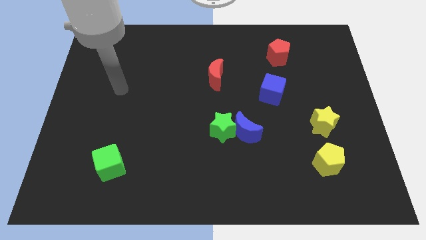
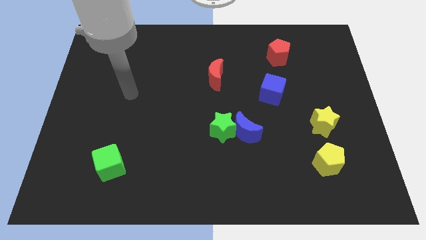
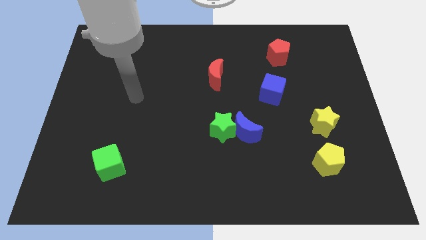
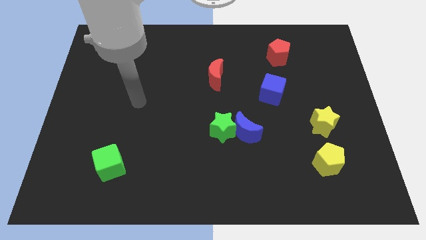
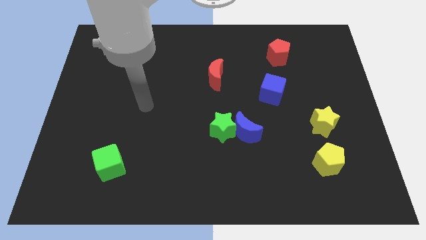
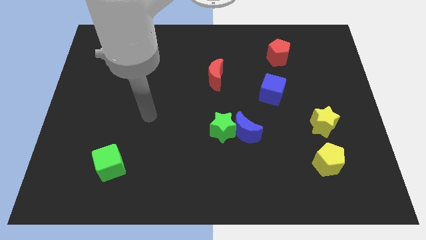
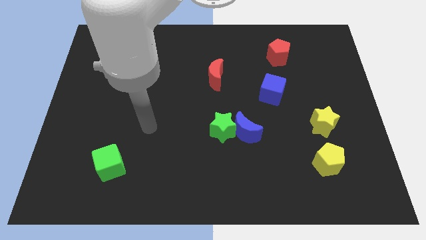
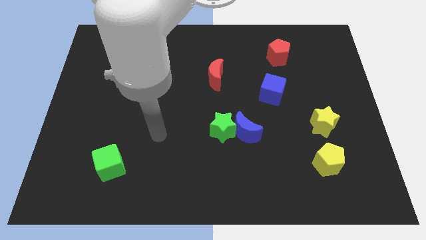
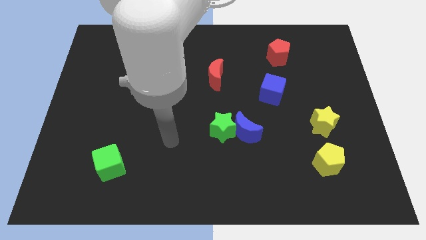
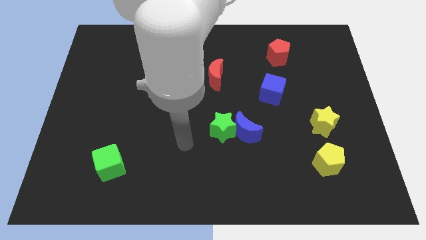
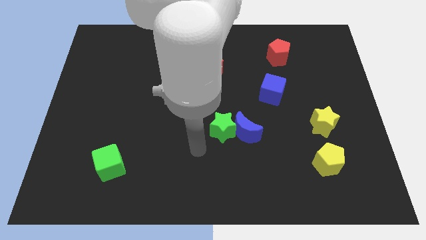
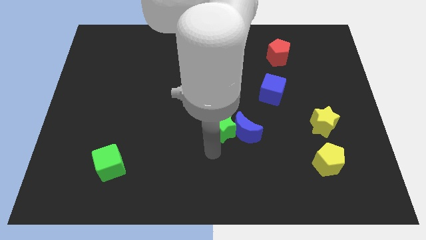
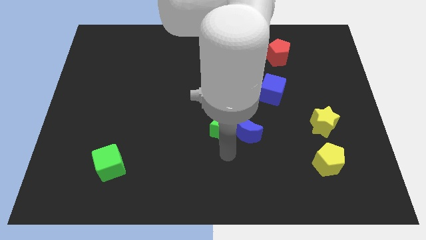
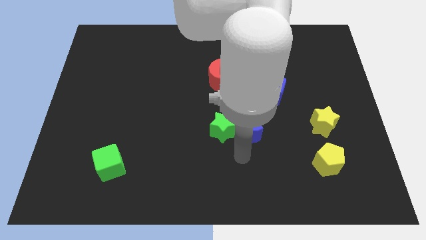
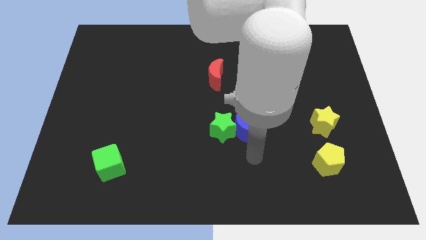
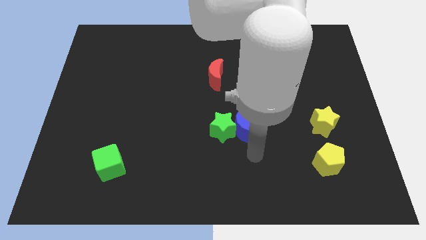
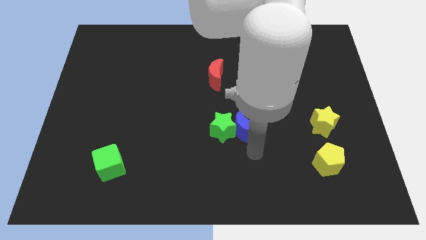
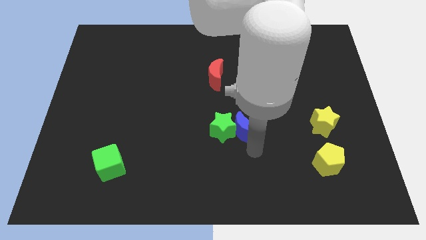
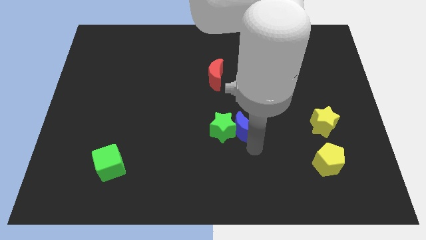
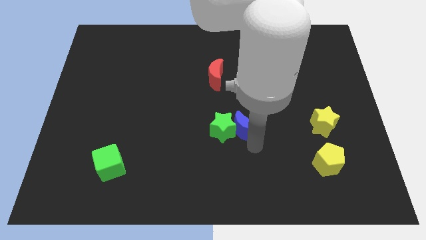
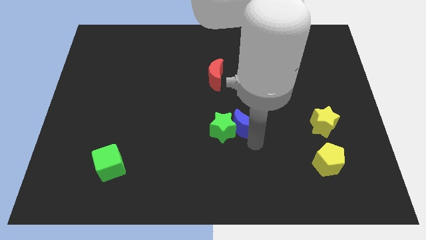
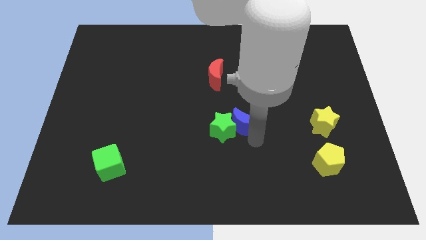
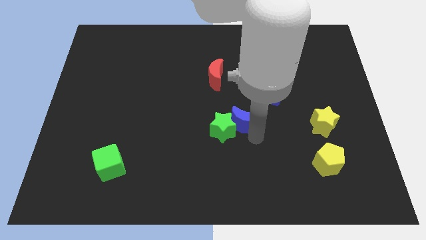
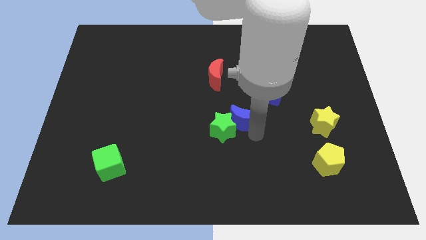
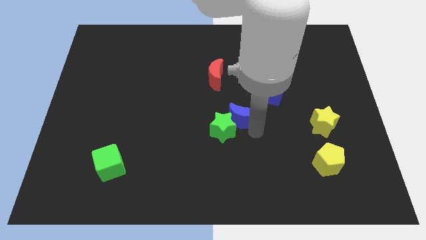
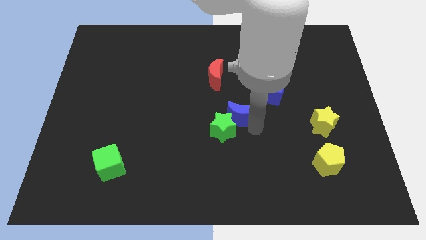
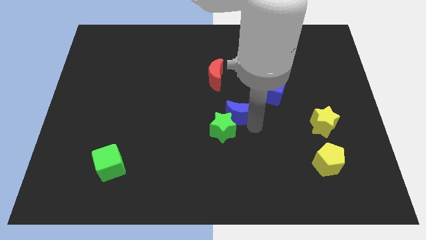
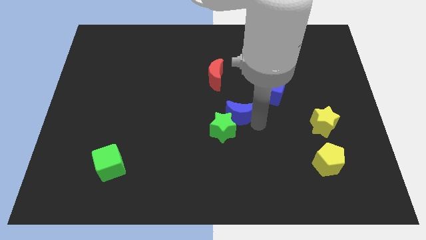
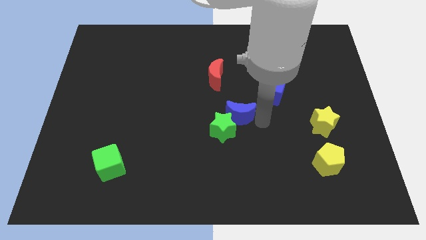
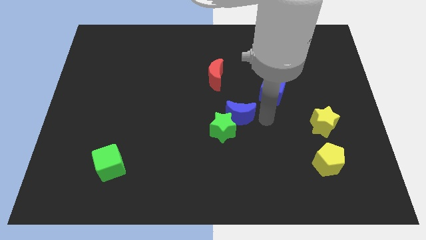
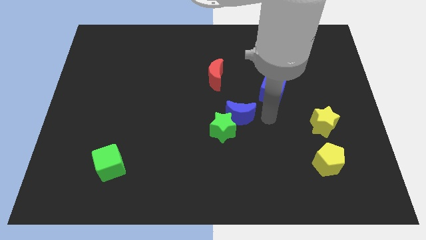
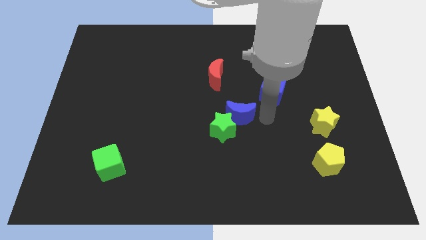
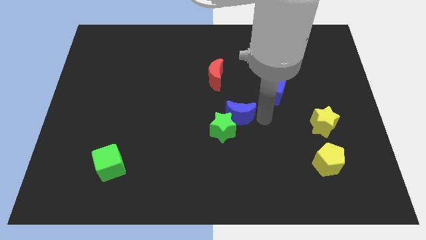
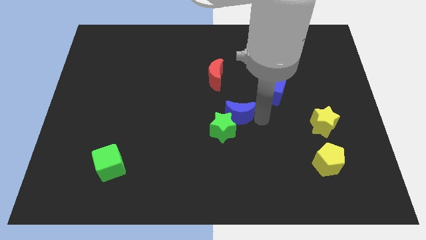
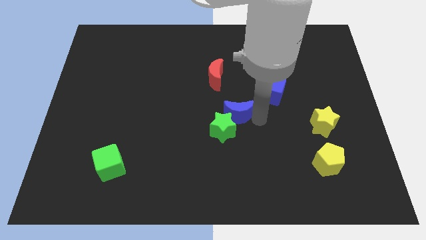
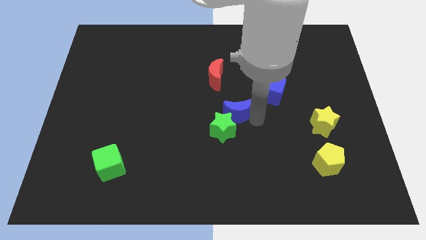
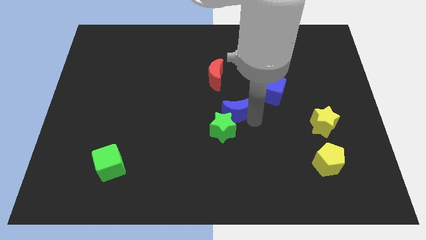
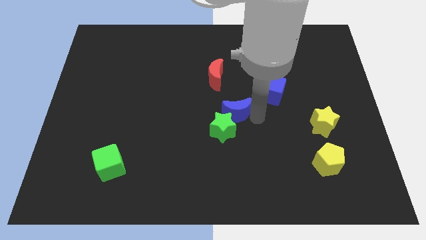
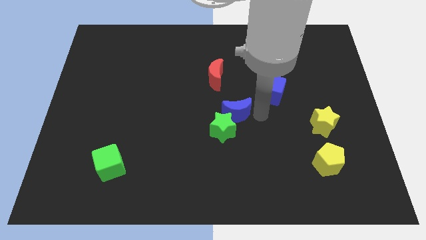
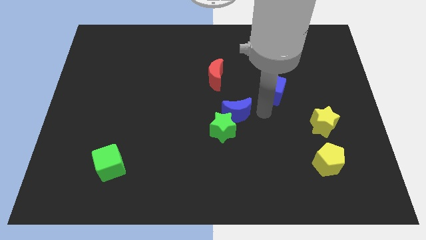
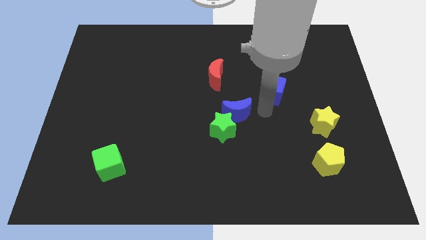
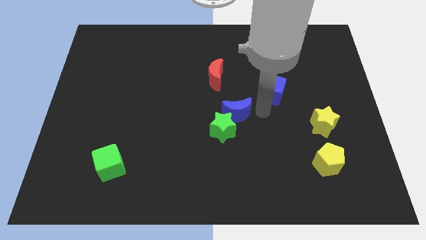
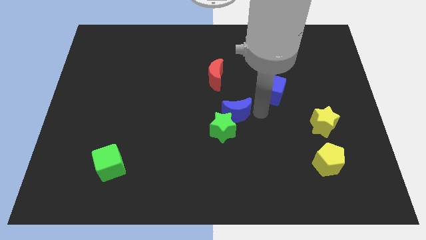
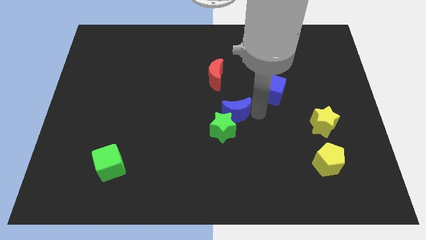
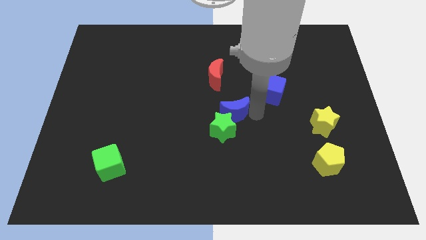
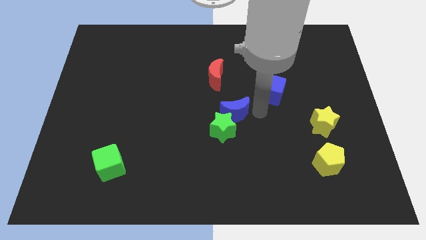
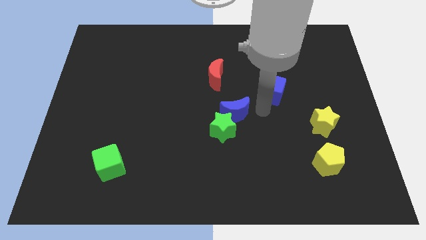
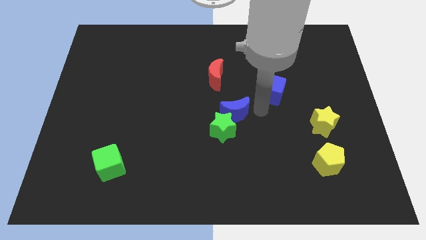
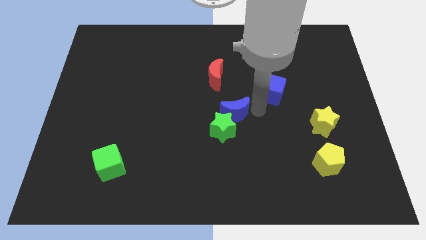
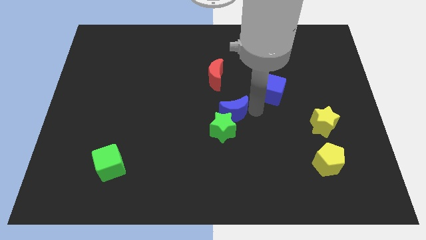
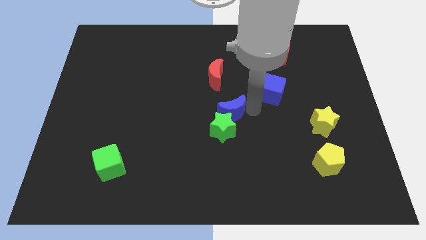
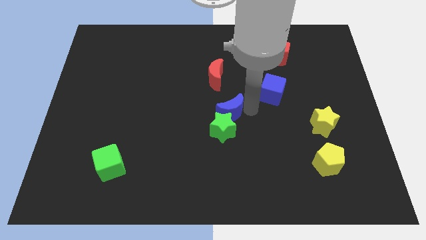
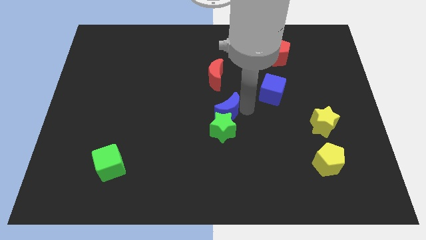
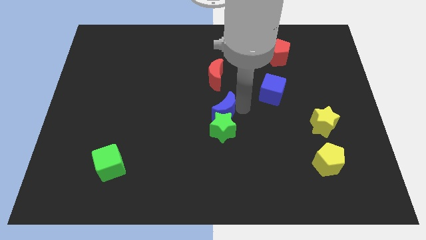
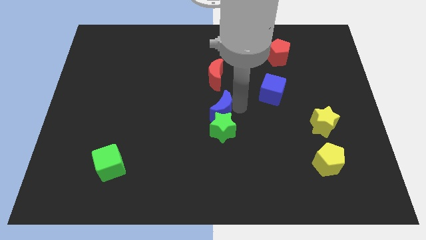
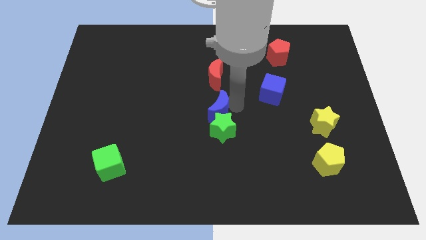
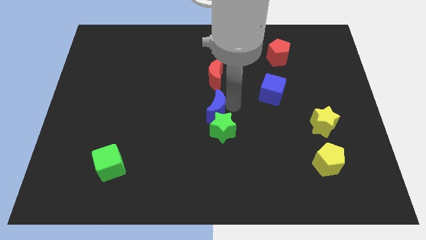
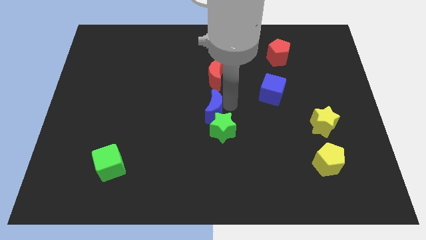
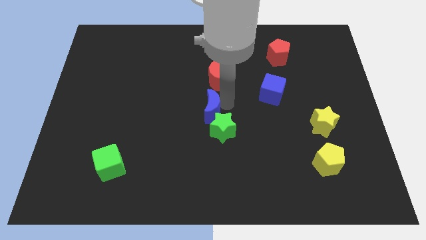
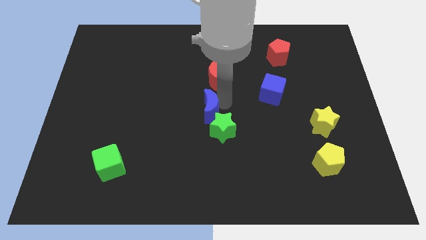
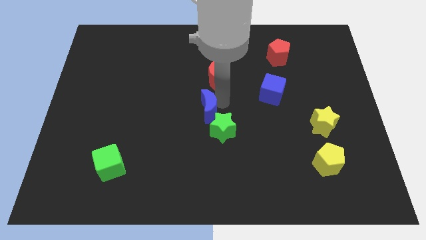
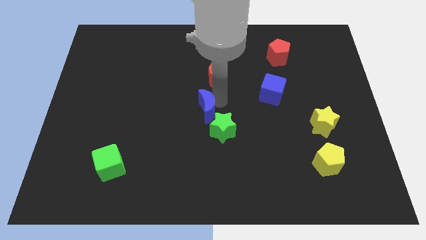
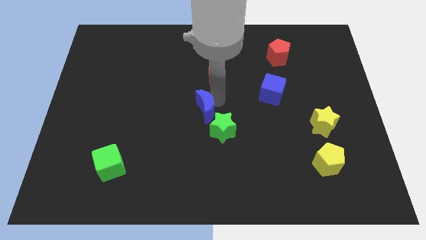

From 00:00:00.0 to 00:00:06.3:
move the blue moon left a little

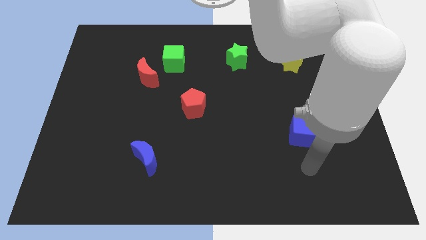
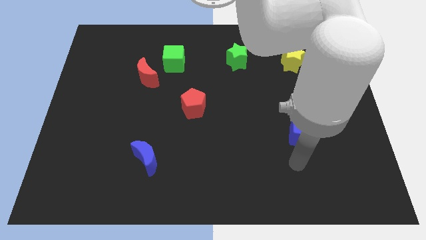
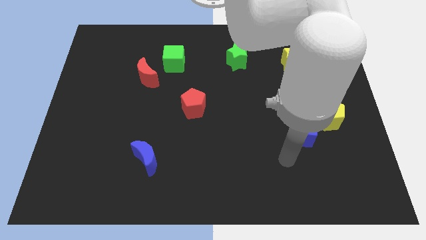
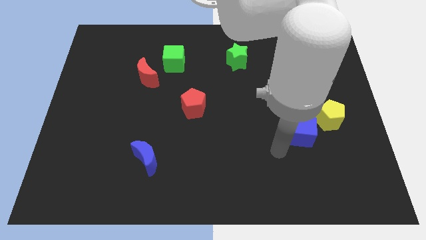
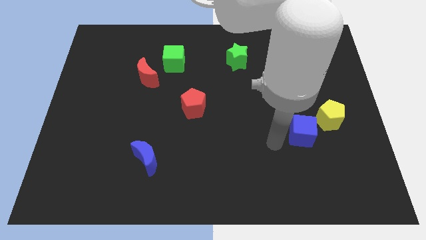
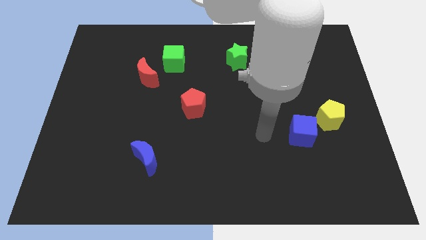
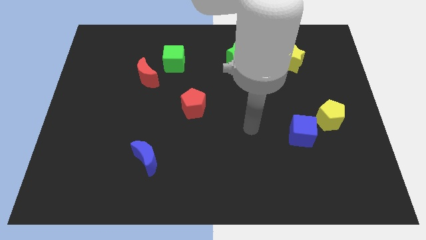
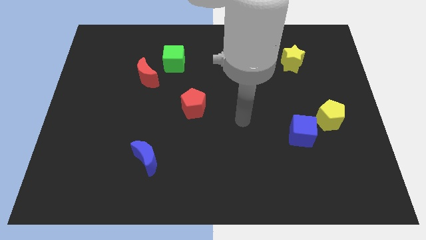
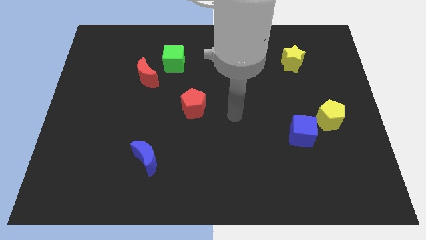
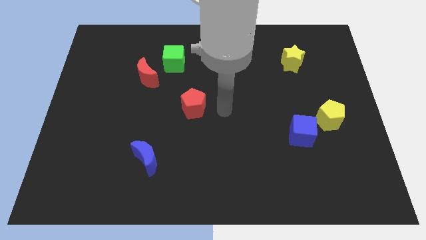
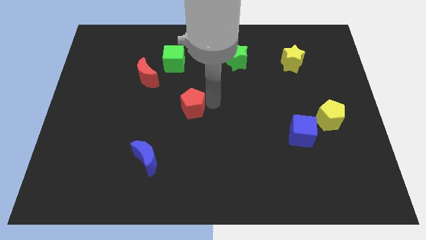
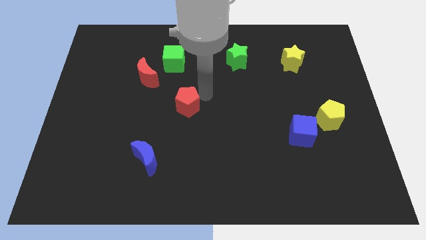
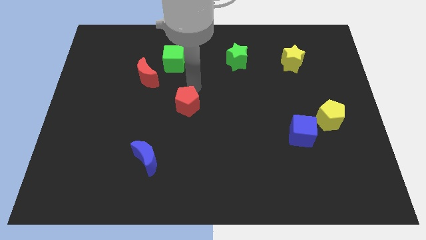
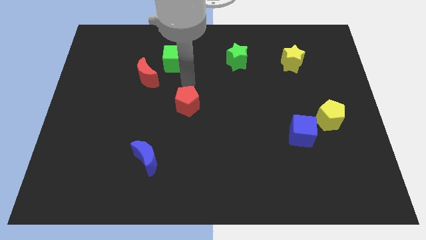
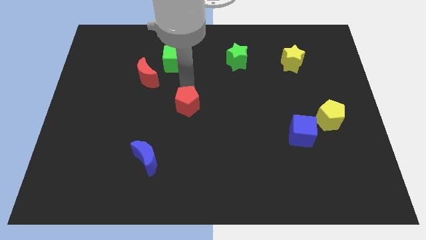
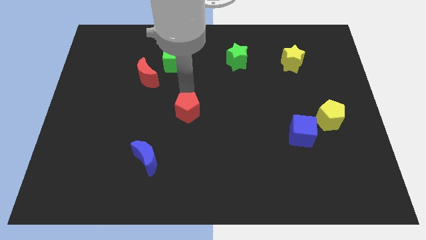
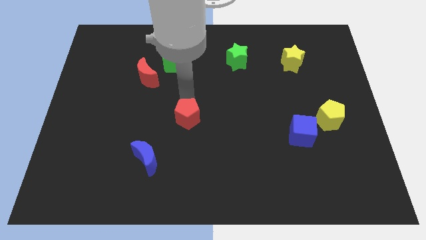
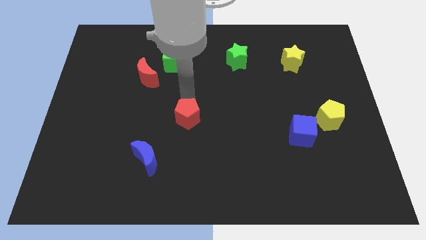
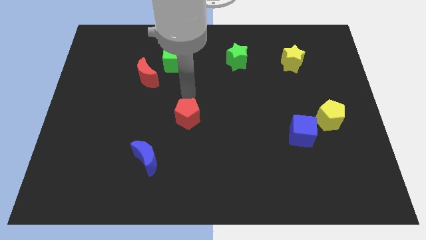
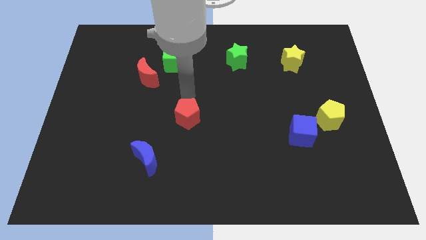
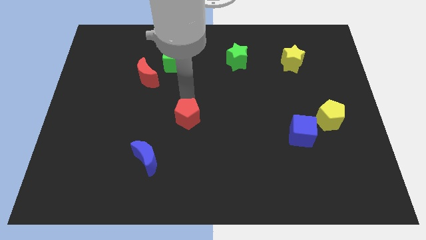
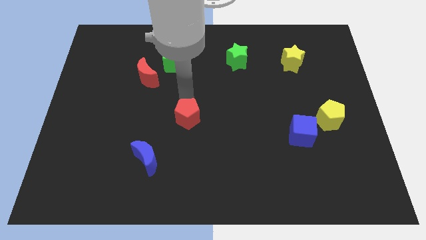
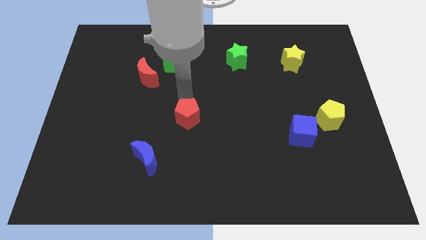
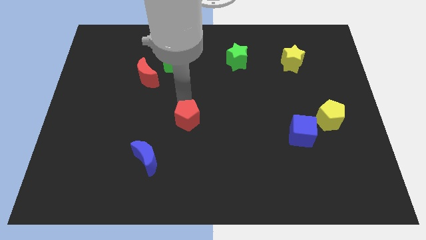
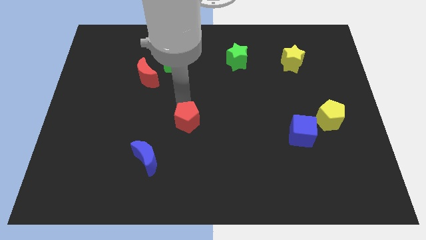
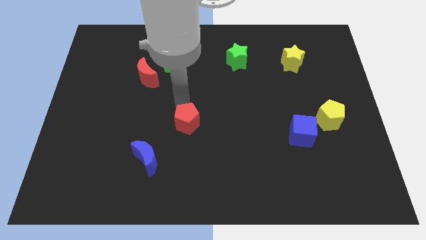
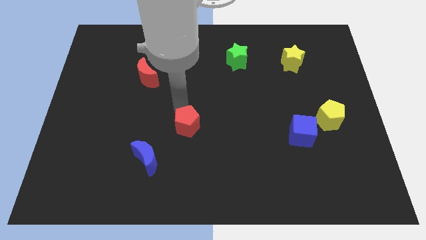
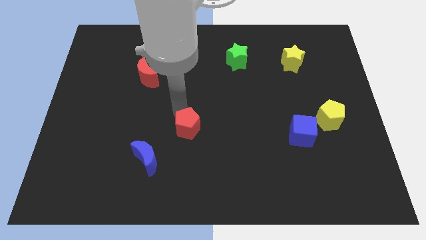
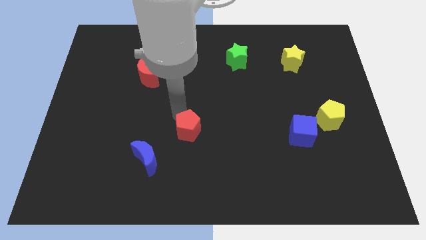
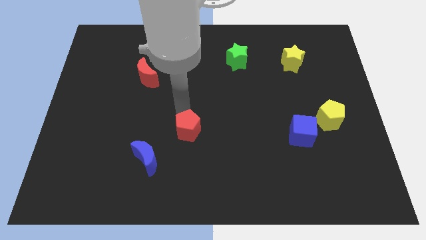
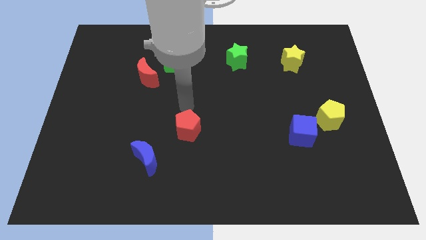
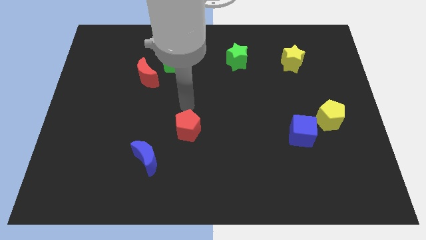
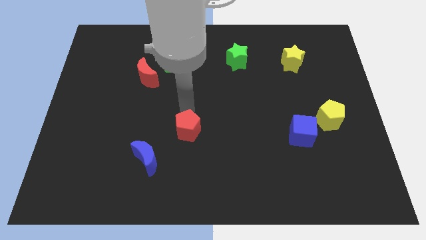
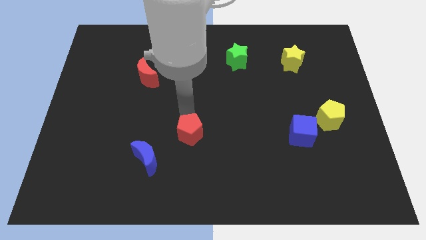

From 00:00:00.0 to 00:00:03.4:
move the red pentagon down a little
